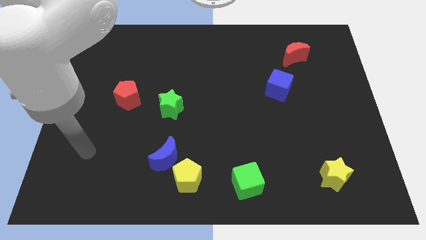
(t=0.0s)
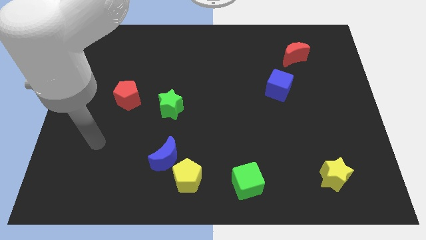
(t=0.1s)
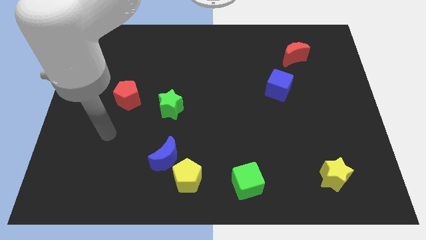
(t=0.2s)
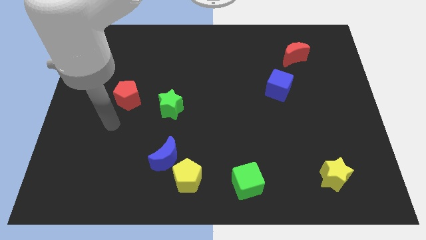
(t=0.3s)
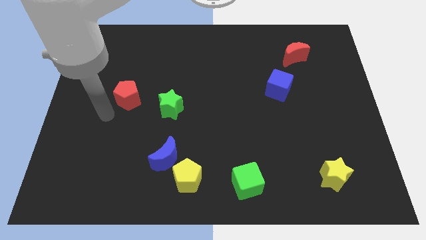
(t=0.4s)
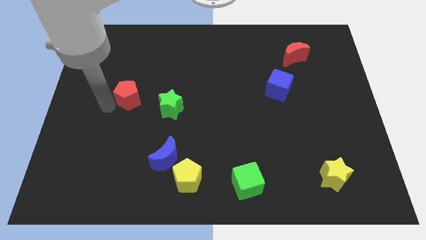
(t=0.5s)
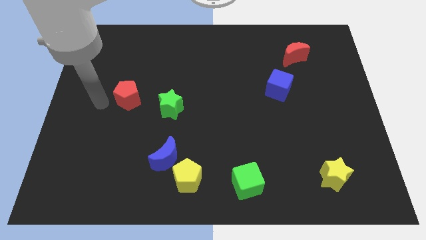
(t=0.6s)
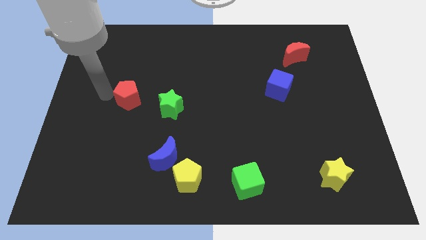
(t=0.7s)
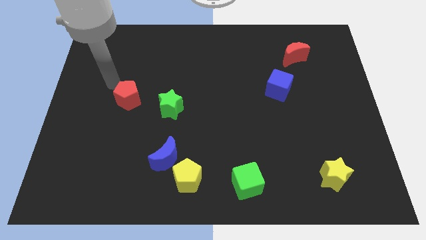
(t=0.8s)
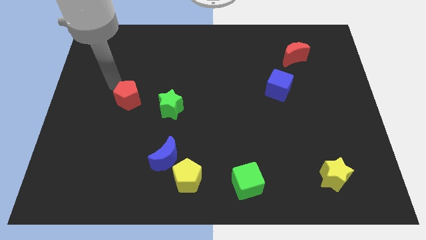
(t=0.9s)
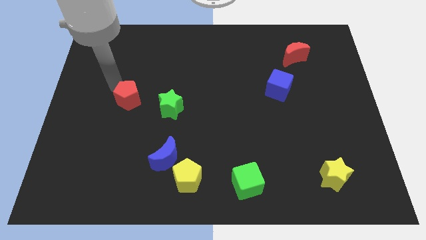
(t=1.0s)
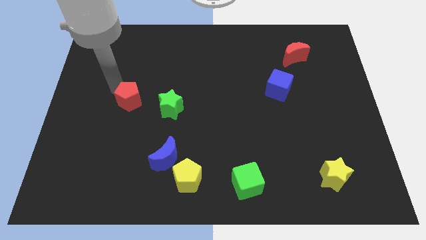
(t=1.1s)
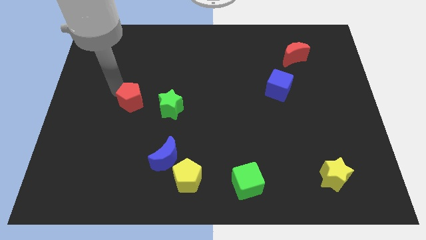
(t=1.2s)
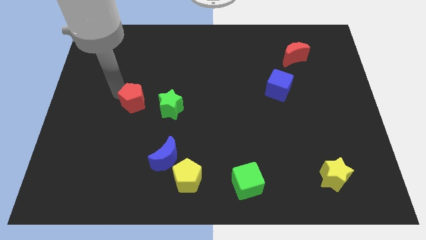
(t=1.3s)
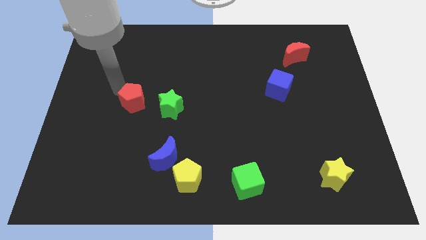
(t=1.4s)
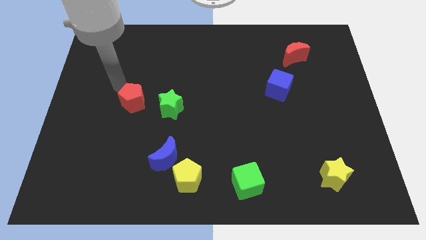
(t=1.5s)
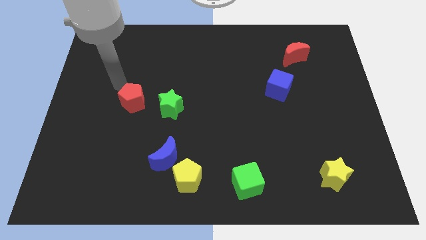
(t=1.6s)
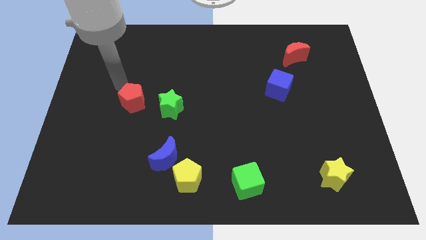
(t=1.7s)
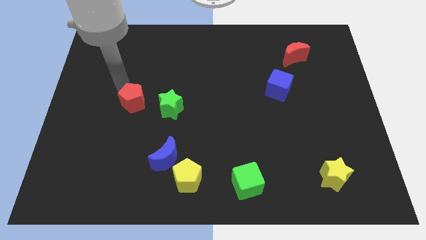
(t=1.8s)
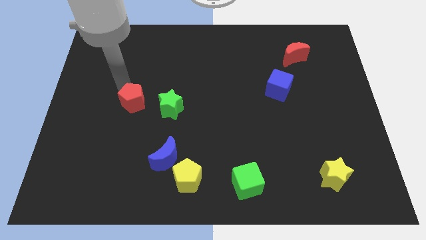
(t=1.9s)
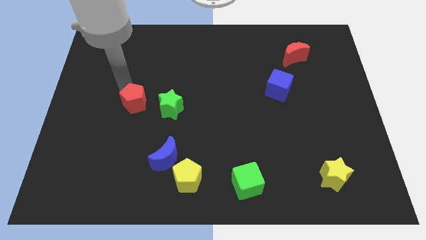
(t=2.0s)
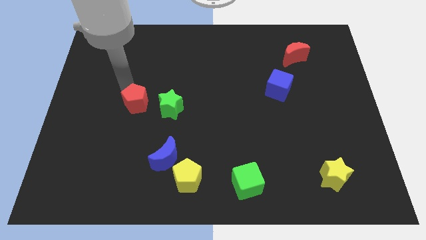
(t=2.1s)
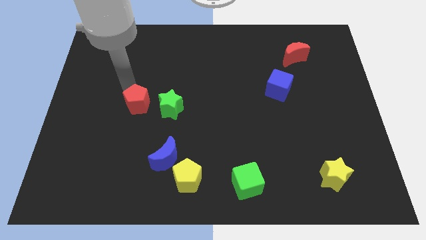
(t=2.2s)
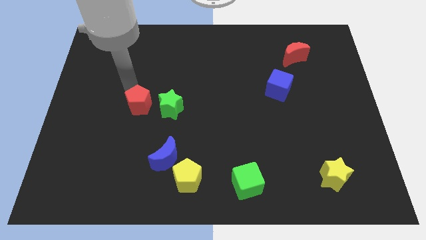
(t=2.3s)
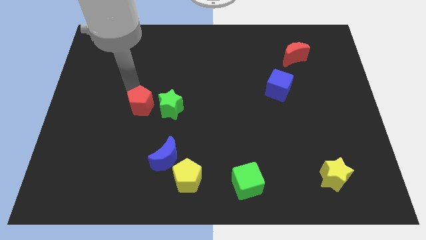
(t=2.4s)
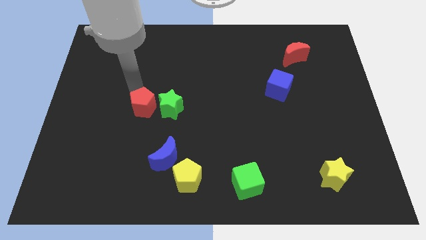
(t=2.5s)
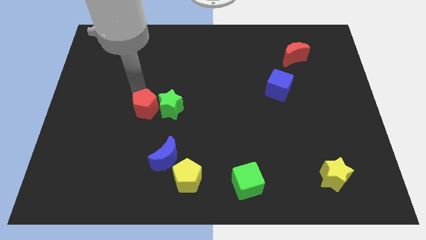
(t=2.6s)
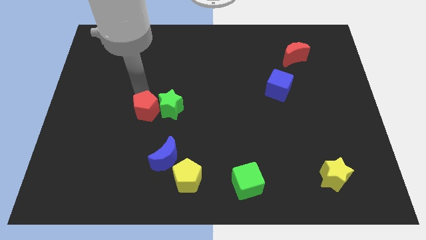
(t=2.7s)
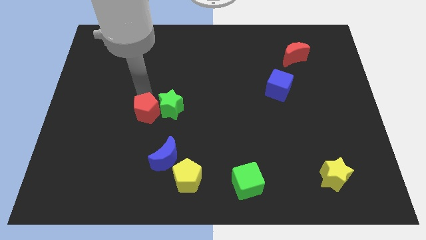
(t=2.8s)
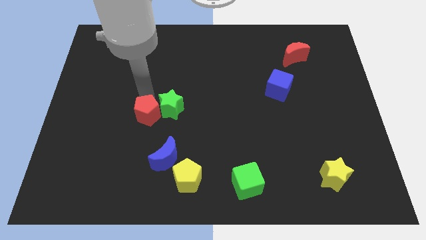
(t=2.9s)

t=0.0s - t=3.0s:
slightly push the red pentagon diagonally down and right

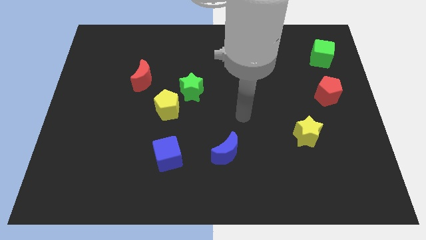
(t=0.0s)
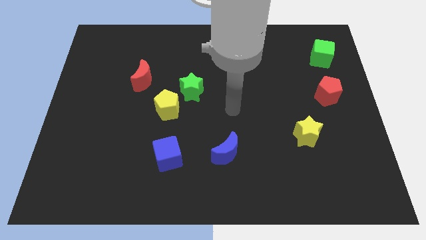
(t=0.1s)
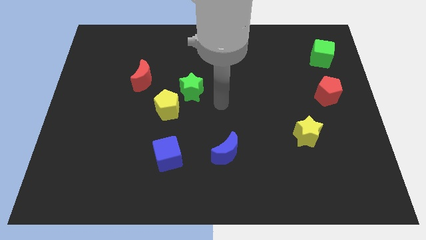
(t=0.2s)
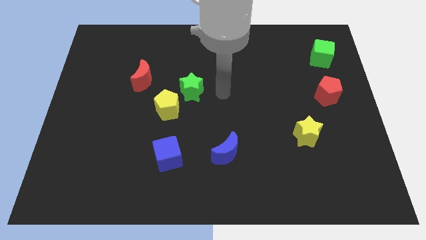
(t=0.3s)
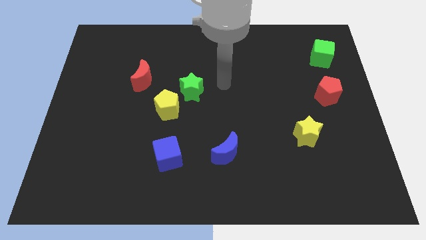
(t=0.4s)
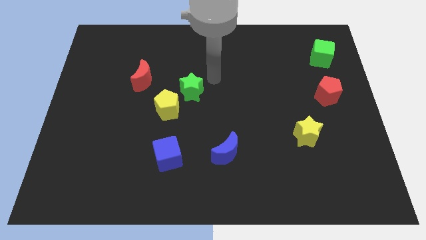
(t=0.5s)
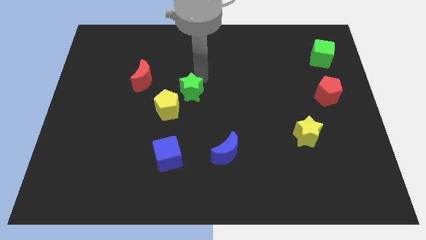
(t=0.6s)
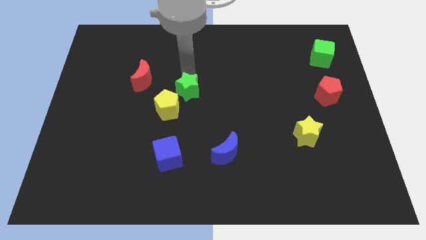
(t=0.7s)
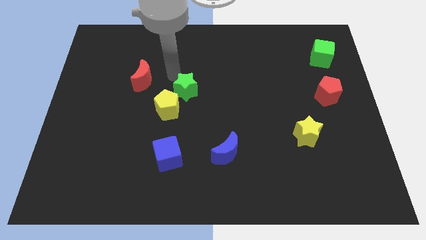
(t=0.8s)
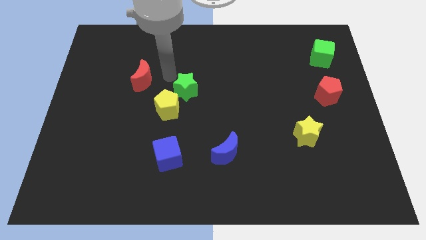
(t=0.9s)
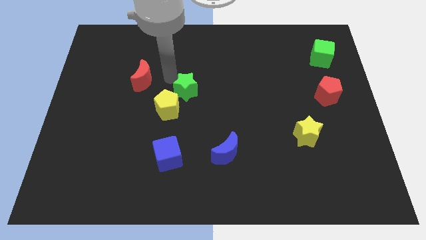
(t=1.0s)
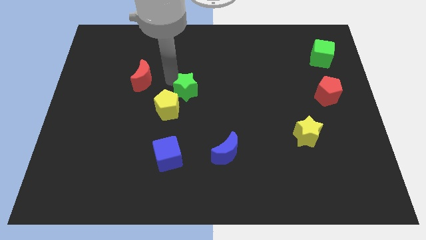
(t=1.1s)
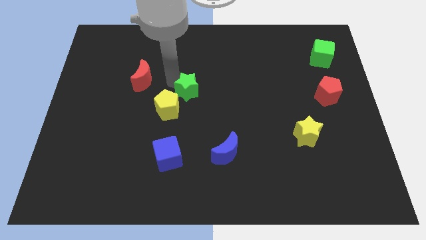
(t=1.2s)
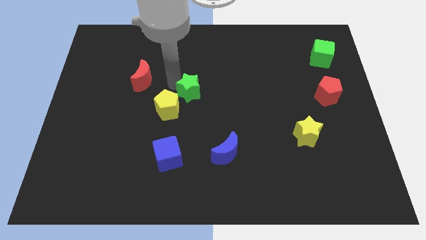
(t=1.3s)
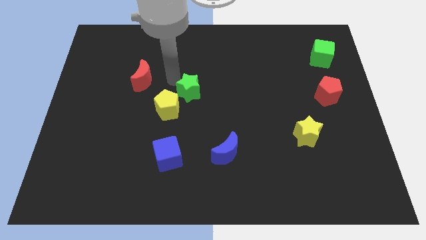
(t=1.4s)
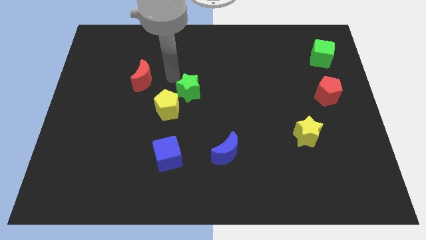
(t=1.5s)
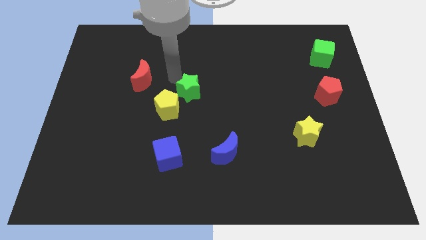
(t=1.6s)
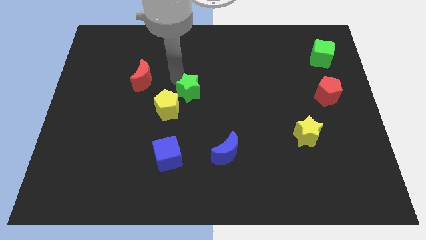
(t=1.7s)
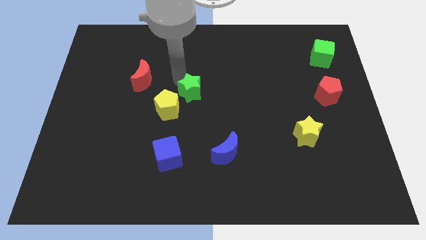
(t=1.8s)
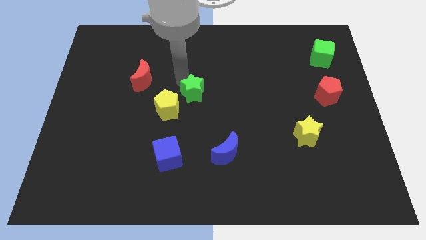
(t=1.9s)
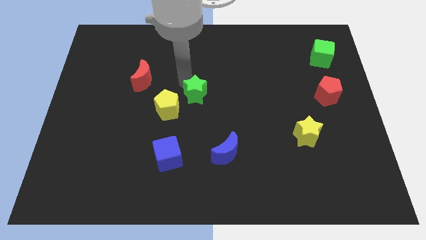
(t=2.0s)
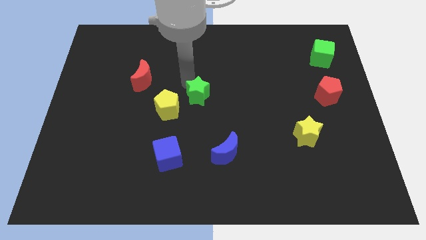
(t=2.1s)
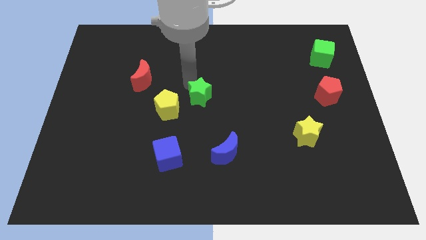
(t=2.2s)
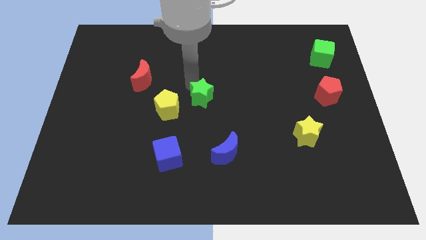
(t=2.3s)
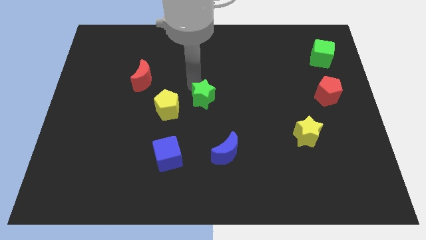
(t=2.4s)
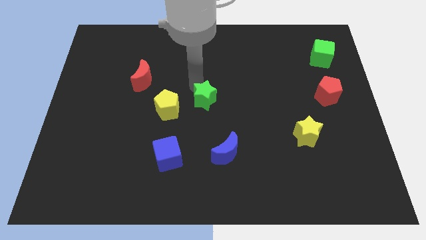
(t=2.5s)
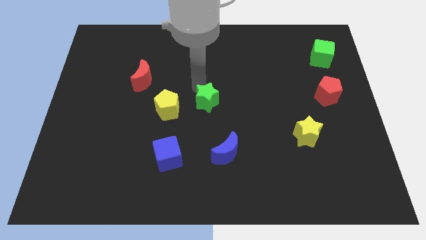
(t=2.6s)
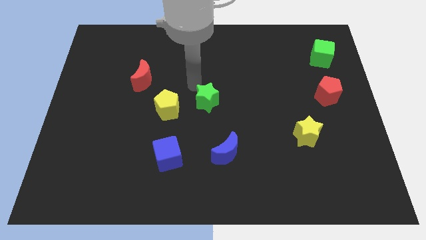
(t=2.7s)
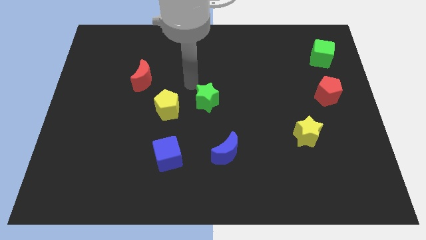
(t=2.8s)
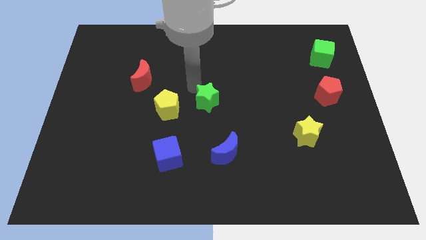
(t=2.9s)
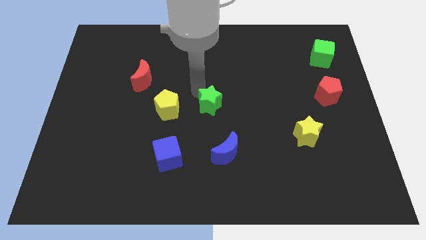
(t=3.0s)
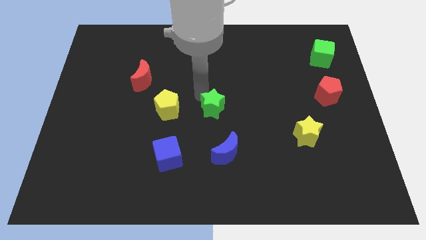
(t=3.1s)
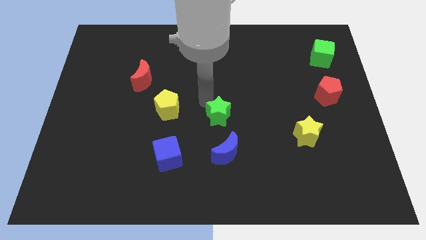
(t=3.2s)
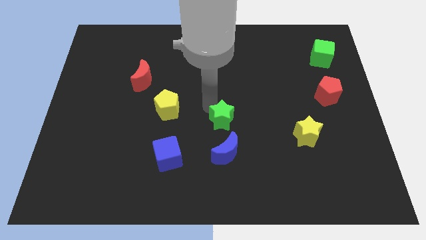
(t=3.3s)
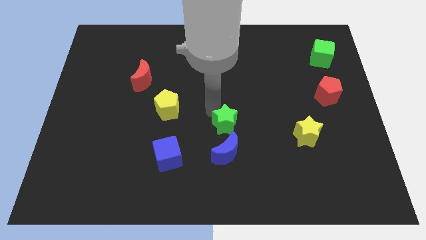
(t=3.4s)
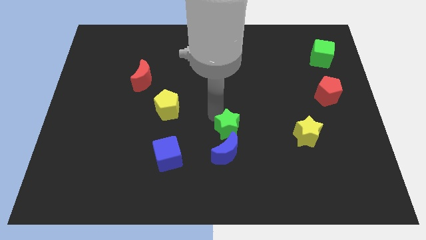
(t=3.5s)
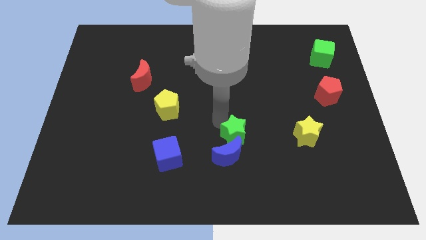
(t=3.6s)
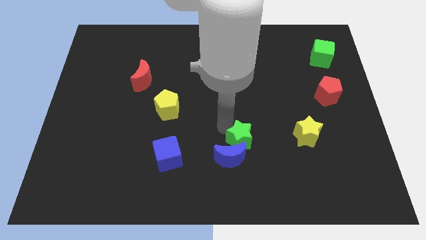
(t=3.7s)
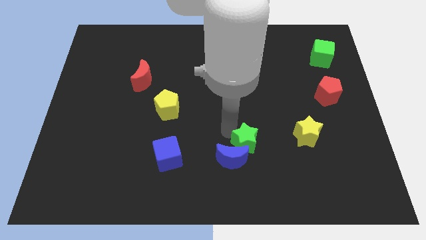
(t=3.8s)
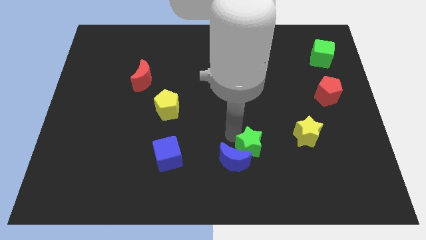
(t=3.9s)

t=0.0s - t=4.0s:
slide the green star downwards and then to the right

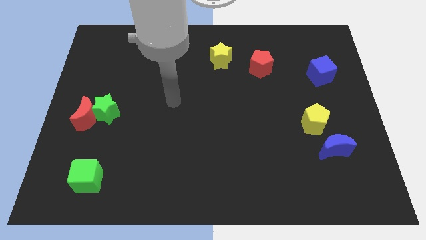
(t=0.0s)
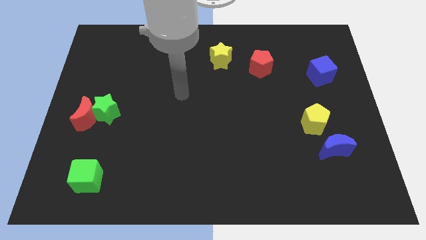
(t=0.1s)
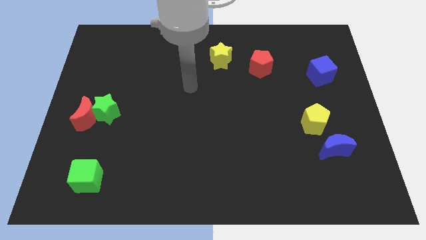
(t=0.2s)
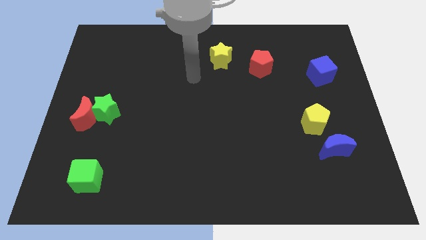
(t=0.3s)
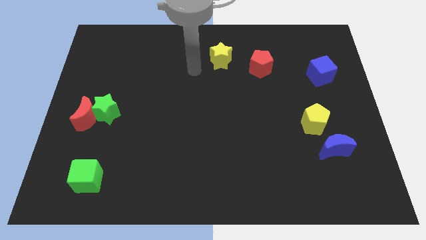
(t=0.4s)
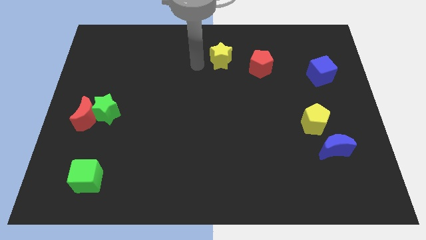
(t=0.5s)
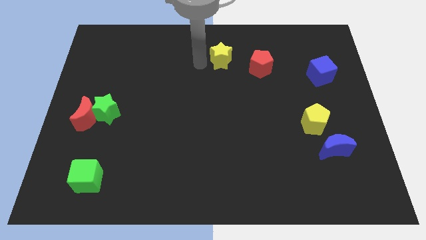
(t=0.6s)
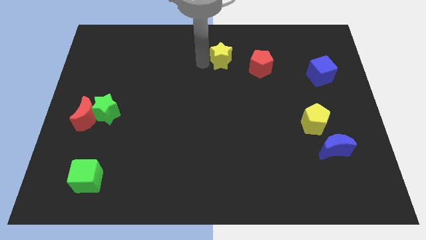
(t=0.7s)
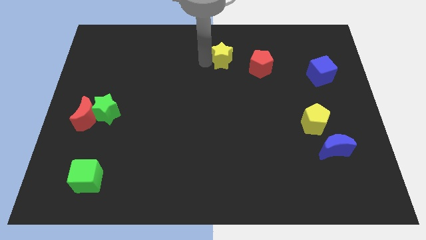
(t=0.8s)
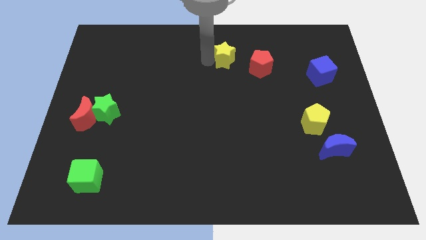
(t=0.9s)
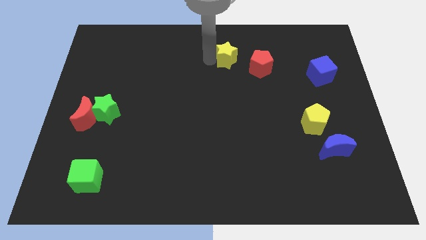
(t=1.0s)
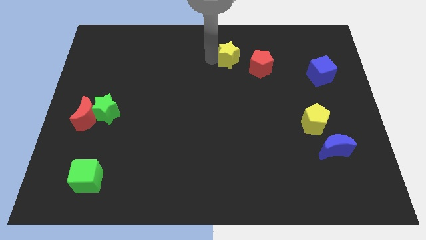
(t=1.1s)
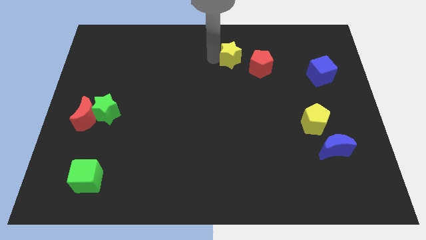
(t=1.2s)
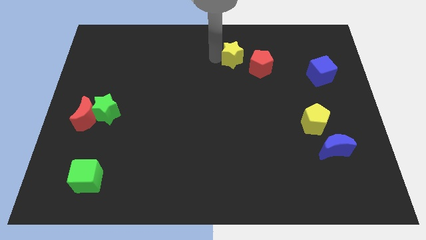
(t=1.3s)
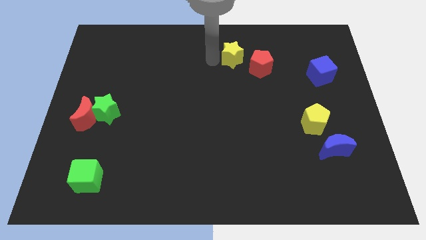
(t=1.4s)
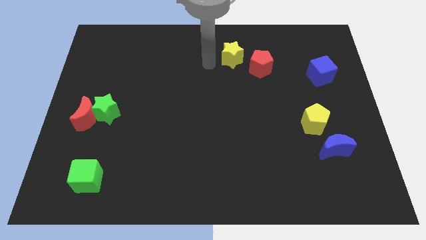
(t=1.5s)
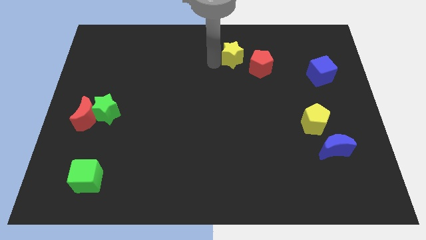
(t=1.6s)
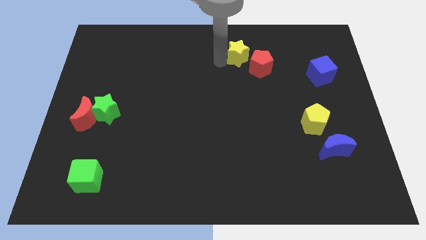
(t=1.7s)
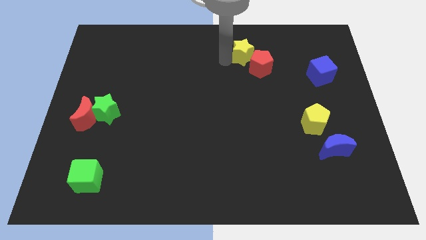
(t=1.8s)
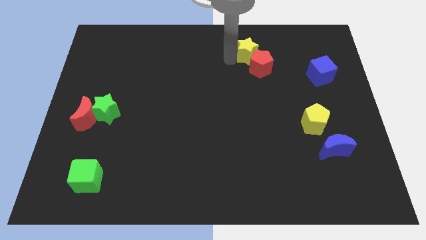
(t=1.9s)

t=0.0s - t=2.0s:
slightly push the yellow star right
